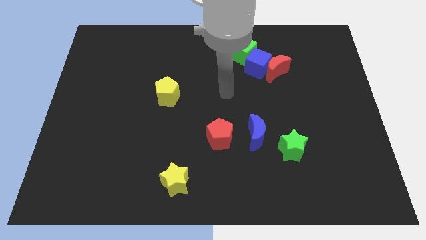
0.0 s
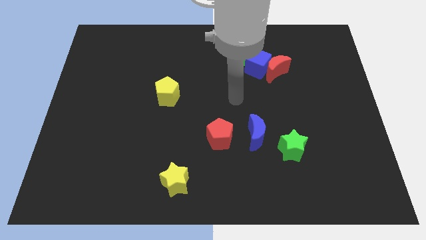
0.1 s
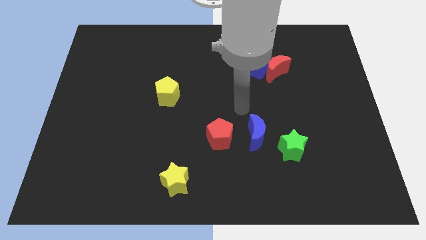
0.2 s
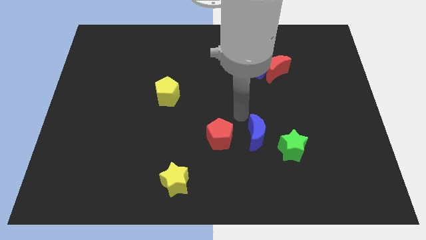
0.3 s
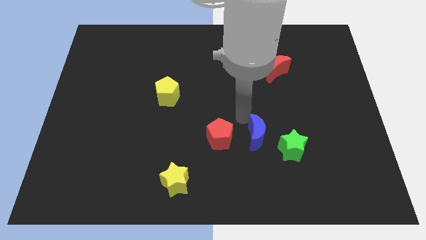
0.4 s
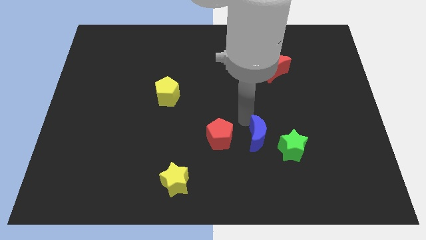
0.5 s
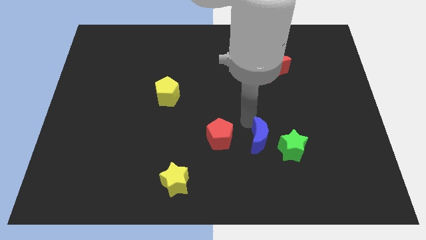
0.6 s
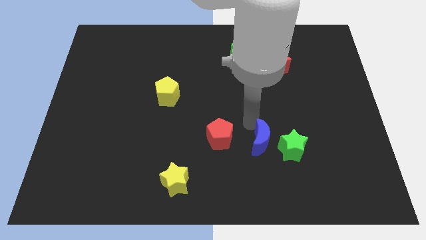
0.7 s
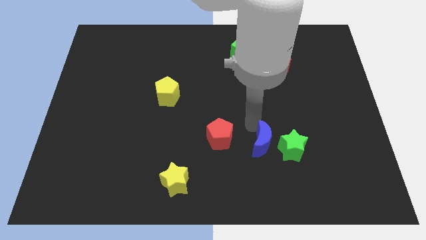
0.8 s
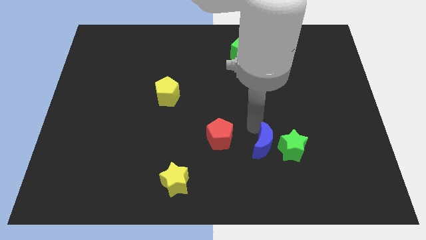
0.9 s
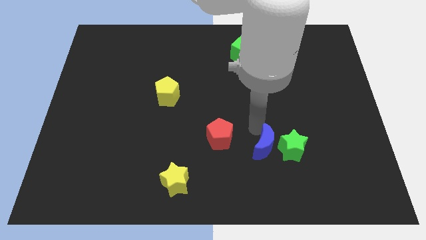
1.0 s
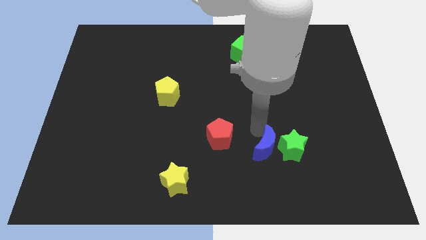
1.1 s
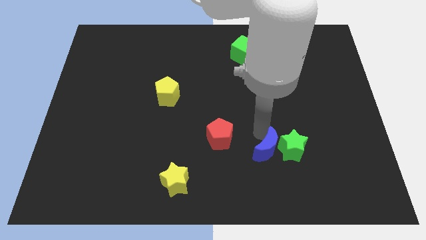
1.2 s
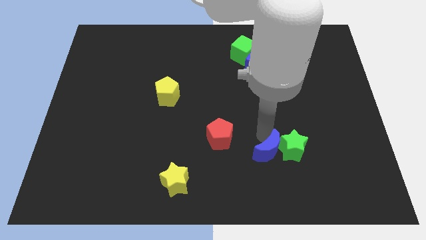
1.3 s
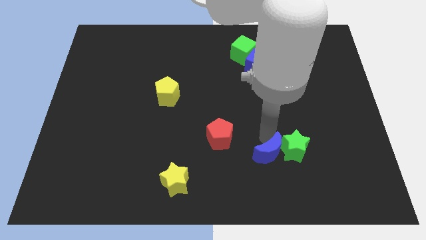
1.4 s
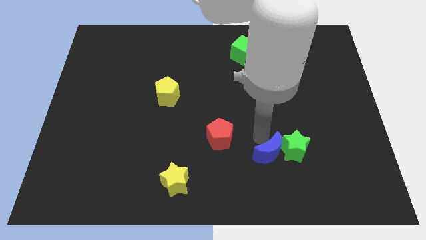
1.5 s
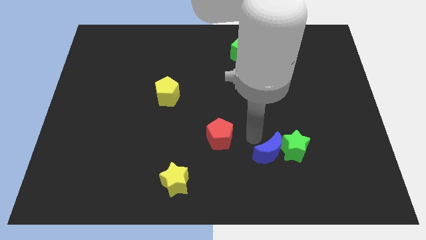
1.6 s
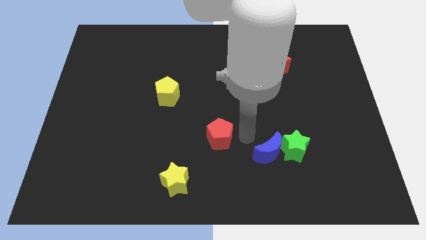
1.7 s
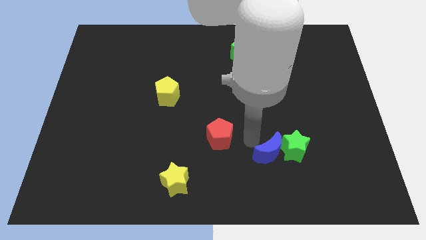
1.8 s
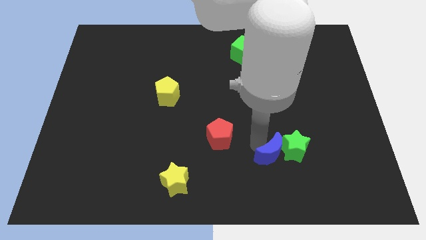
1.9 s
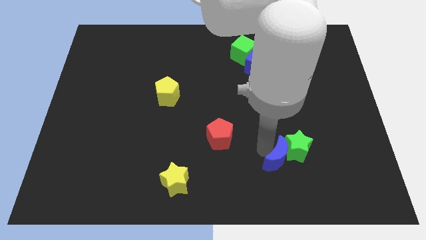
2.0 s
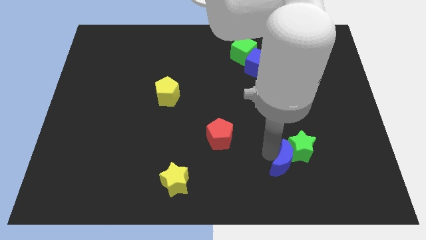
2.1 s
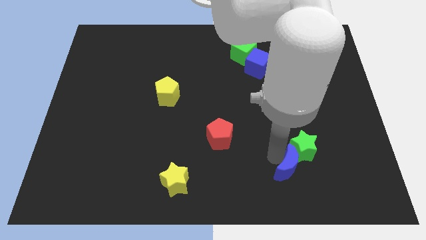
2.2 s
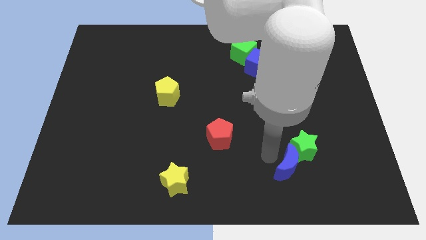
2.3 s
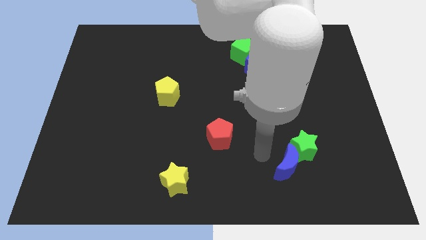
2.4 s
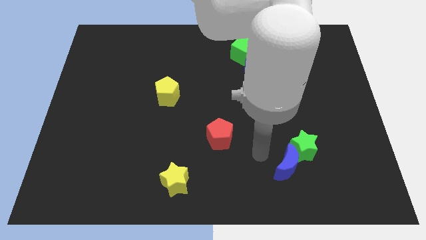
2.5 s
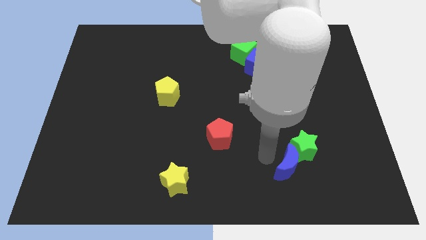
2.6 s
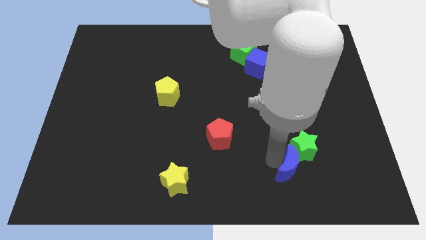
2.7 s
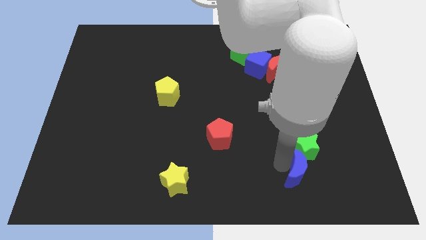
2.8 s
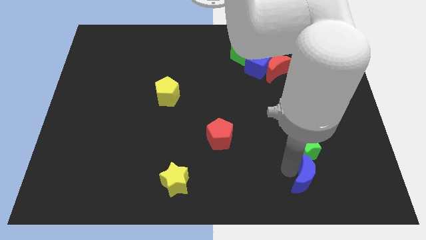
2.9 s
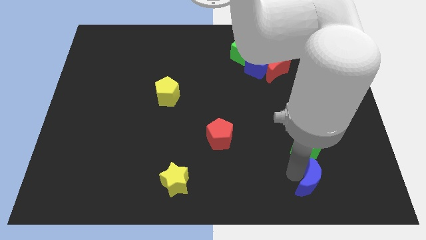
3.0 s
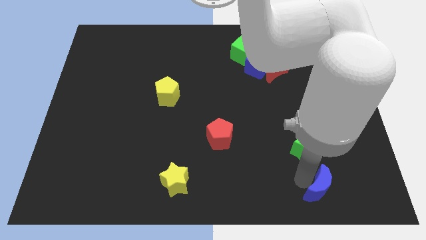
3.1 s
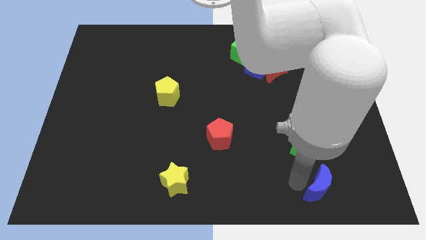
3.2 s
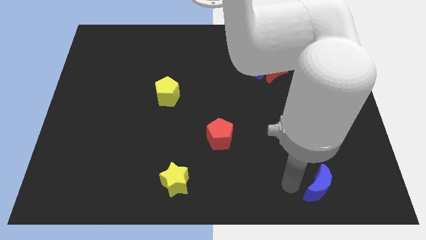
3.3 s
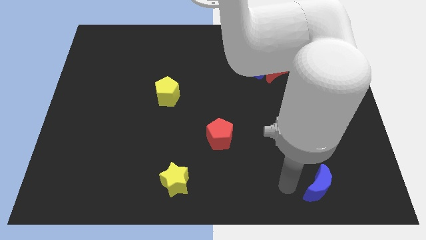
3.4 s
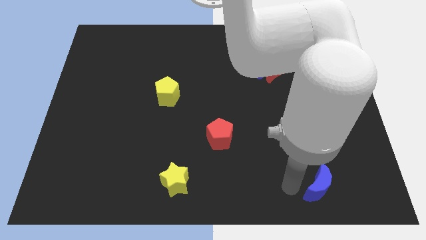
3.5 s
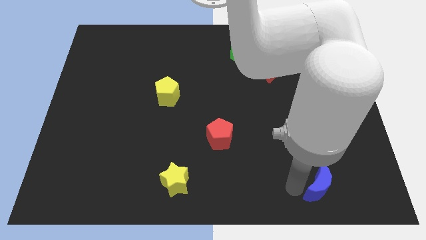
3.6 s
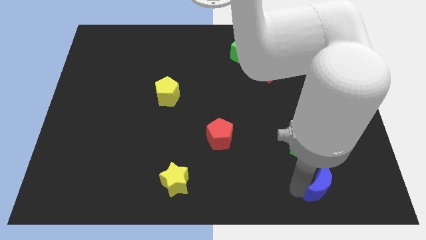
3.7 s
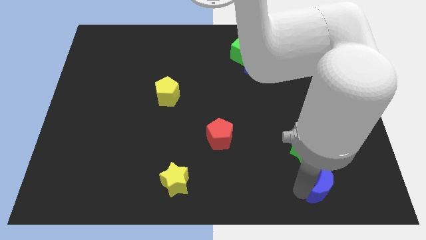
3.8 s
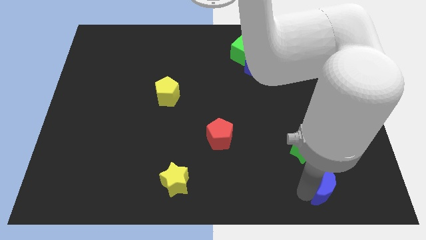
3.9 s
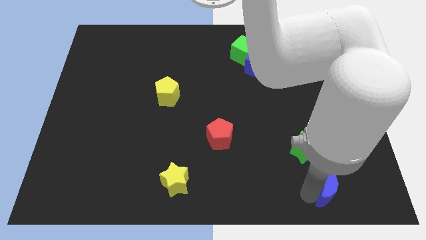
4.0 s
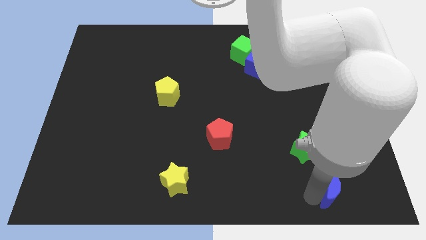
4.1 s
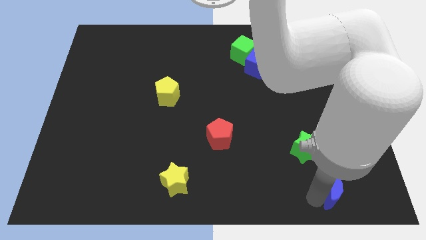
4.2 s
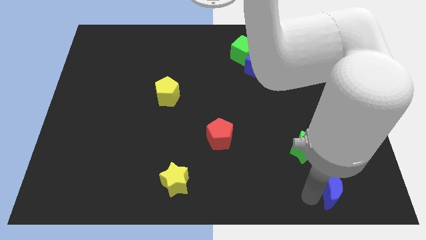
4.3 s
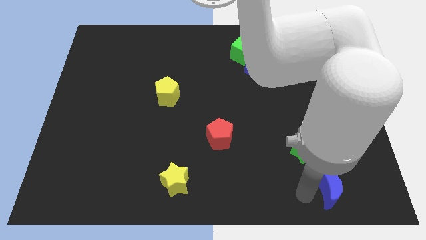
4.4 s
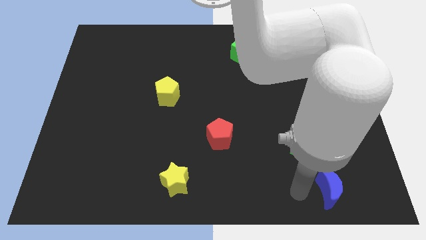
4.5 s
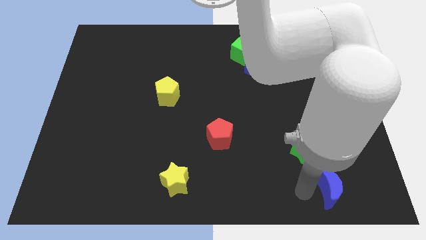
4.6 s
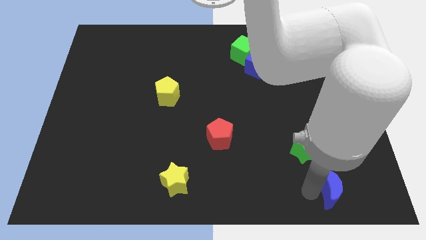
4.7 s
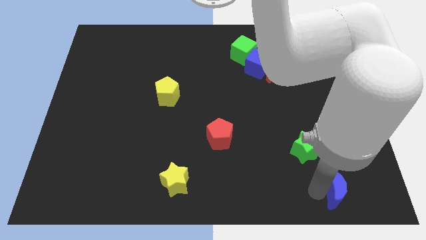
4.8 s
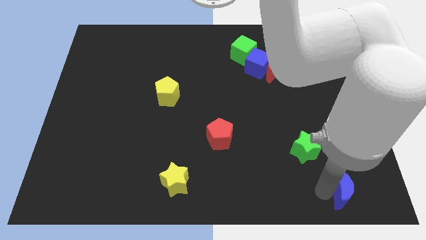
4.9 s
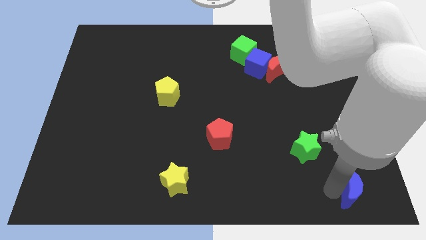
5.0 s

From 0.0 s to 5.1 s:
push the blue moon to the bottom right of the board
